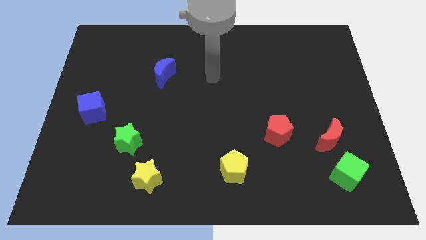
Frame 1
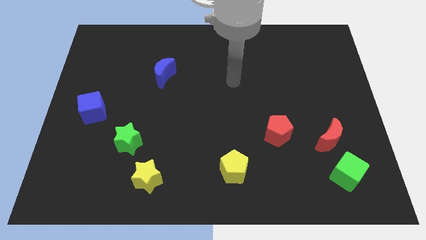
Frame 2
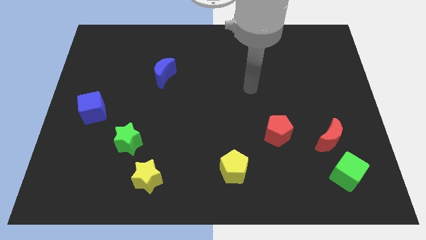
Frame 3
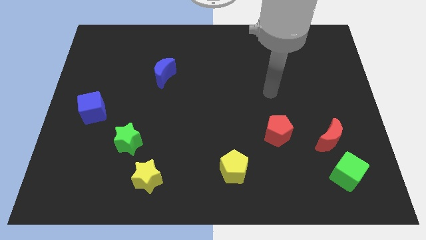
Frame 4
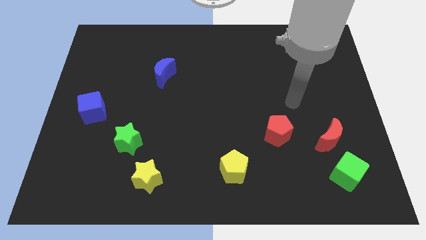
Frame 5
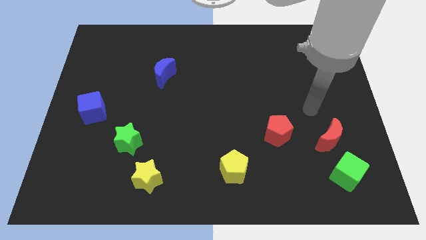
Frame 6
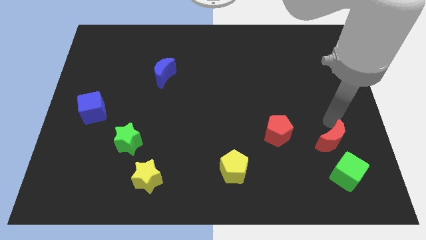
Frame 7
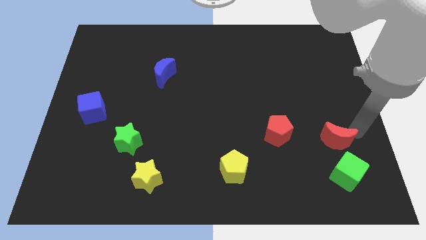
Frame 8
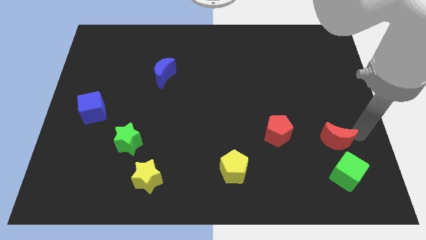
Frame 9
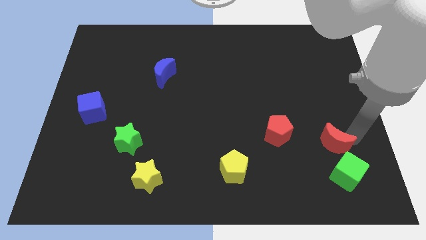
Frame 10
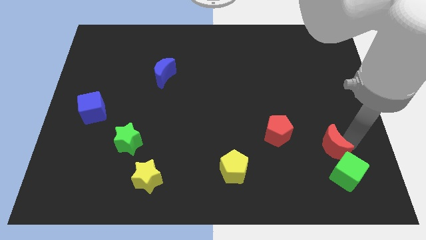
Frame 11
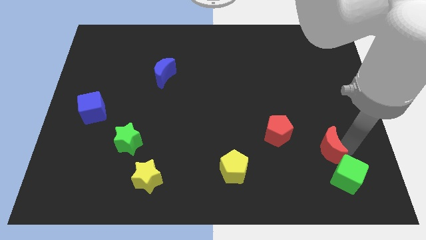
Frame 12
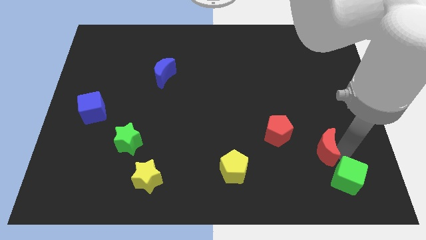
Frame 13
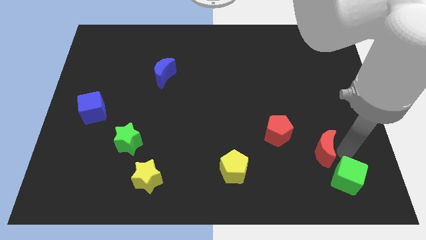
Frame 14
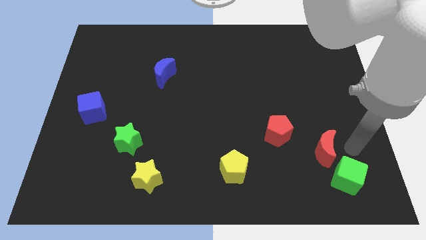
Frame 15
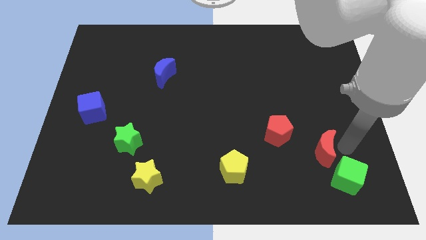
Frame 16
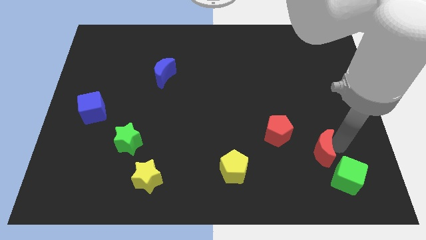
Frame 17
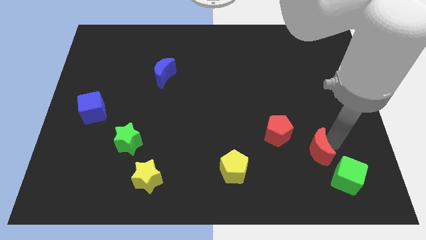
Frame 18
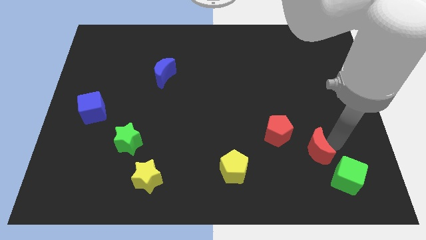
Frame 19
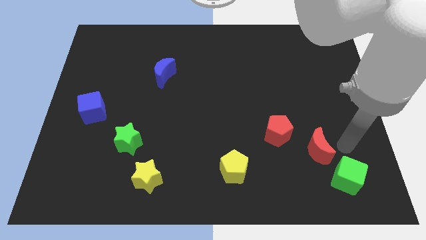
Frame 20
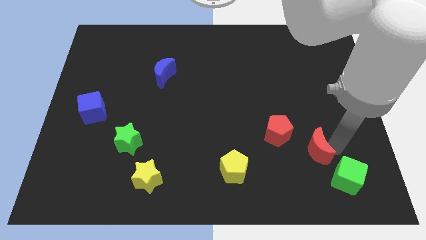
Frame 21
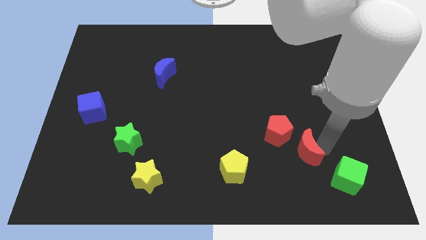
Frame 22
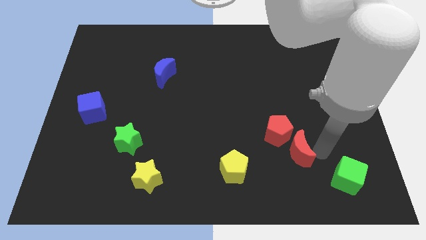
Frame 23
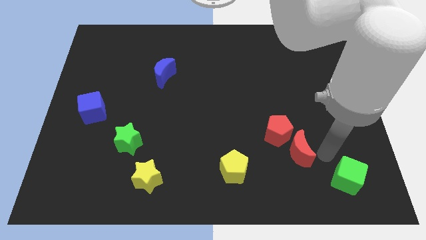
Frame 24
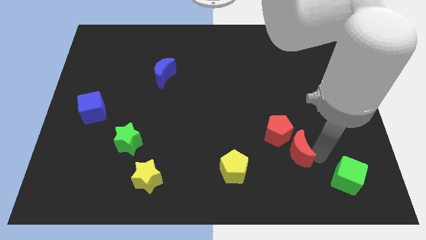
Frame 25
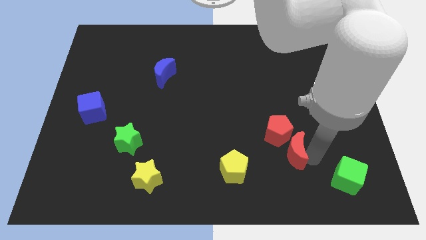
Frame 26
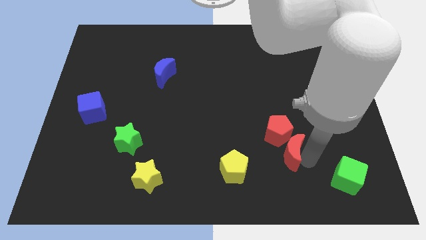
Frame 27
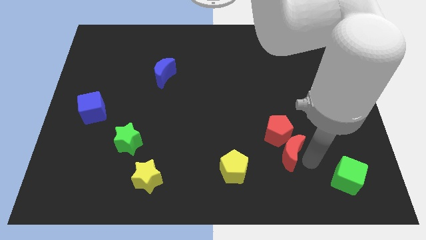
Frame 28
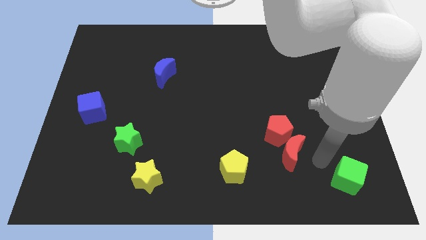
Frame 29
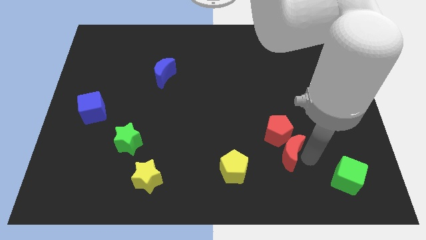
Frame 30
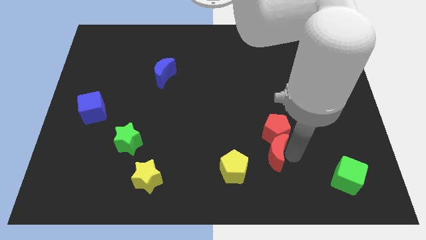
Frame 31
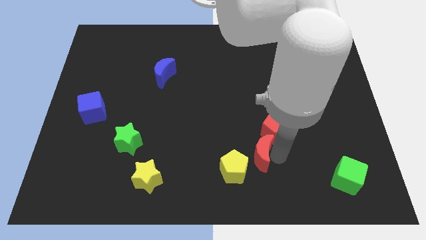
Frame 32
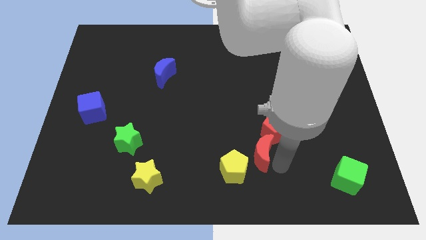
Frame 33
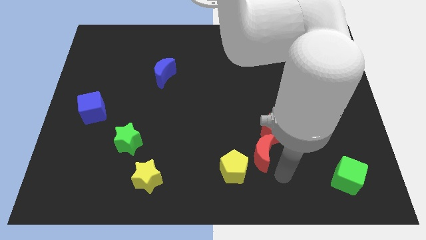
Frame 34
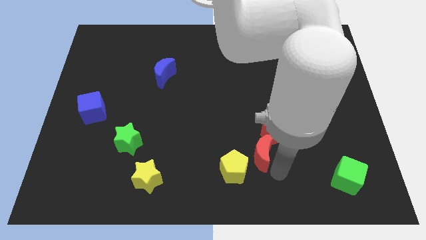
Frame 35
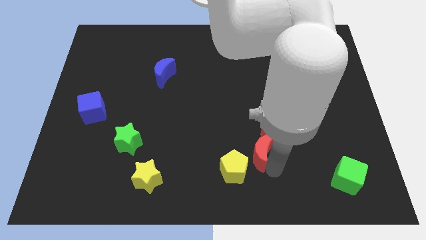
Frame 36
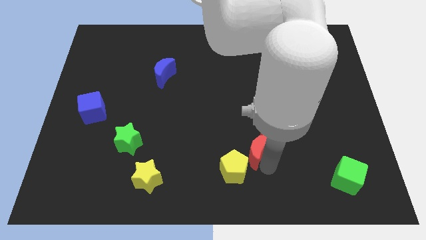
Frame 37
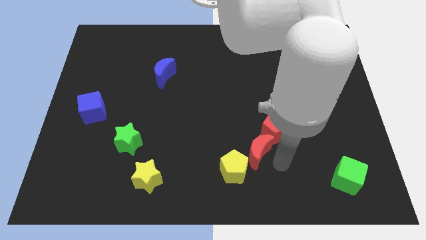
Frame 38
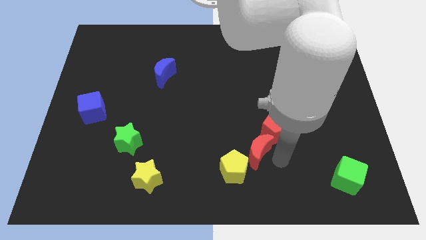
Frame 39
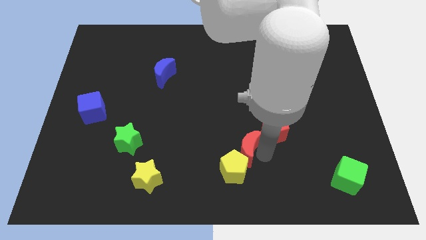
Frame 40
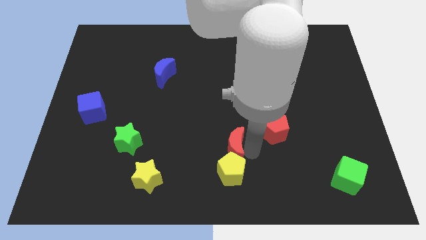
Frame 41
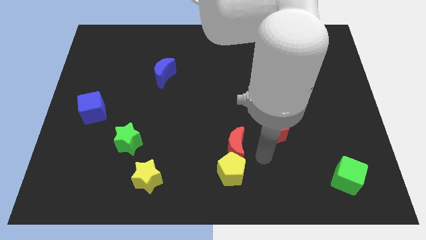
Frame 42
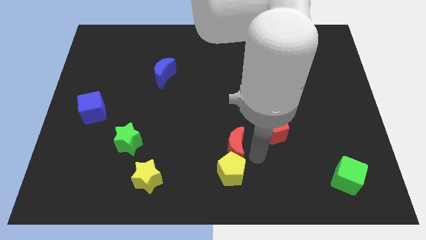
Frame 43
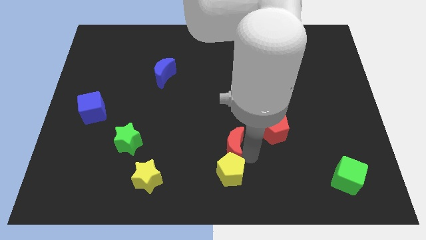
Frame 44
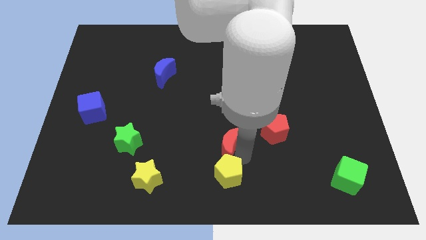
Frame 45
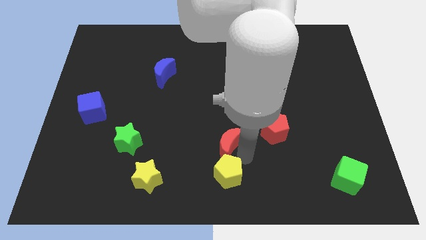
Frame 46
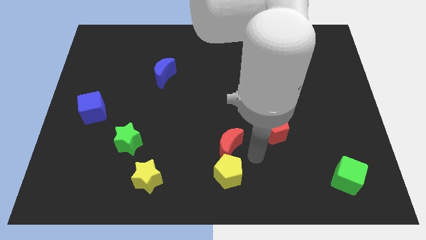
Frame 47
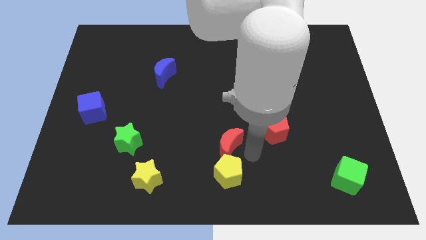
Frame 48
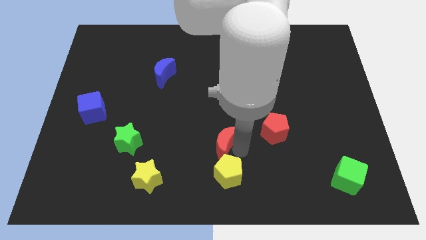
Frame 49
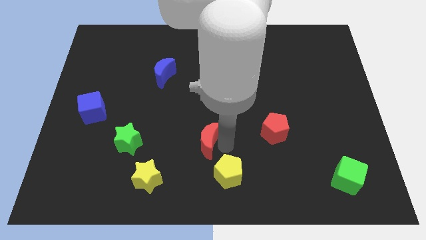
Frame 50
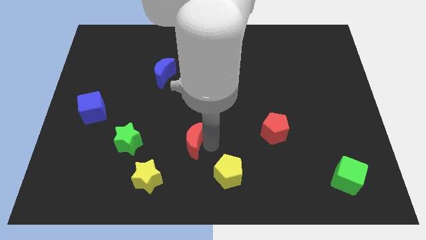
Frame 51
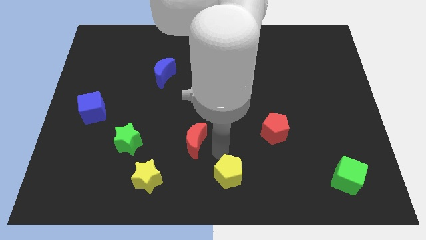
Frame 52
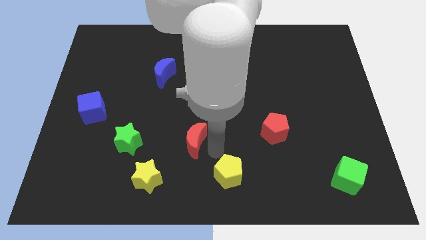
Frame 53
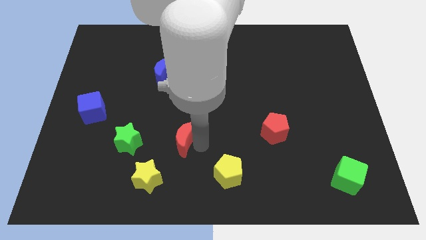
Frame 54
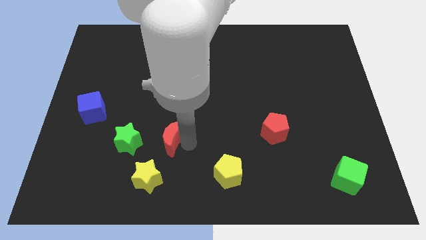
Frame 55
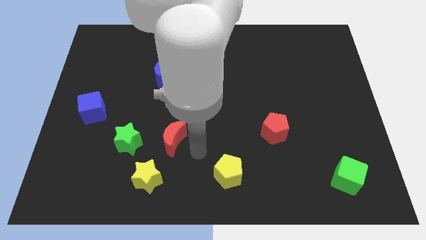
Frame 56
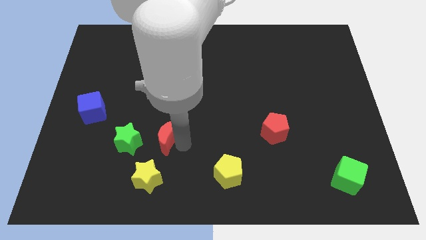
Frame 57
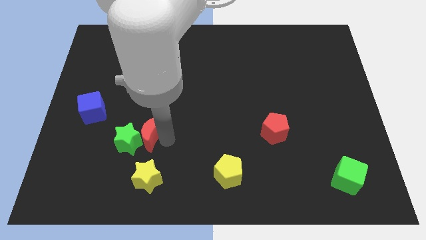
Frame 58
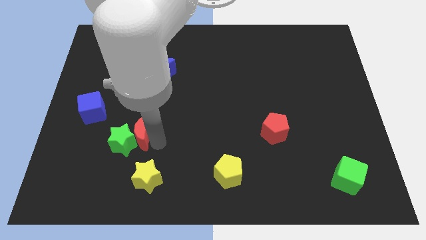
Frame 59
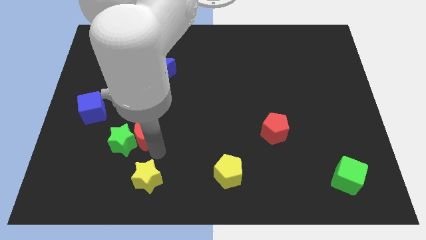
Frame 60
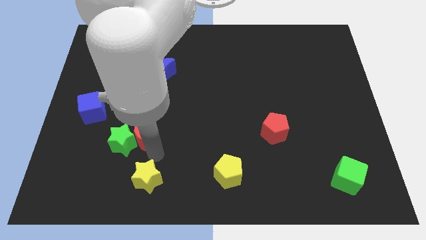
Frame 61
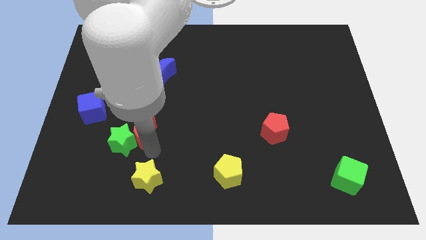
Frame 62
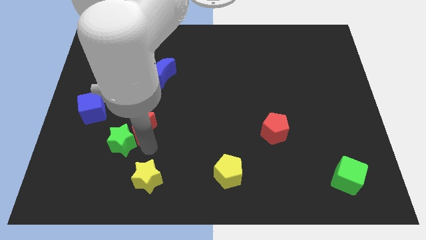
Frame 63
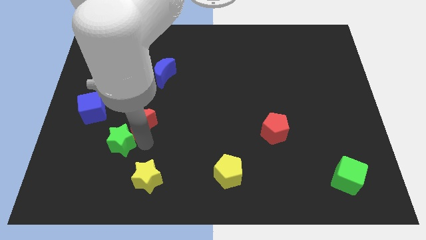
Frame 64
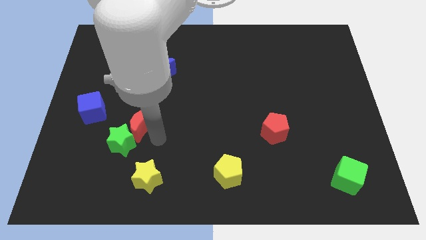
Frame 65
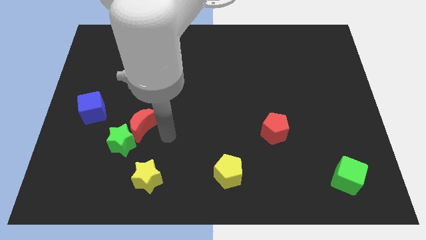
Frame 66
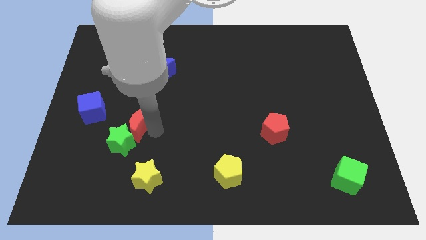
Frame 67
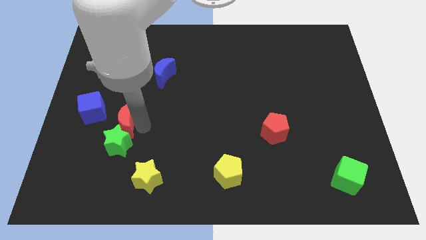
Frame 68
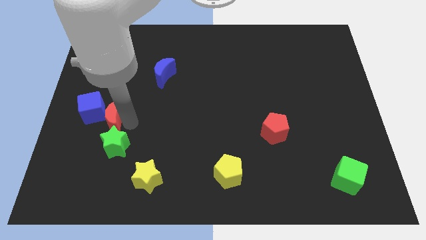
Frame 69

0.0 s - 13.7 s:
push the red moon towards the blue cube

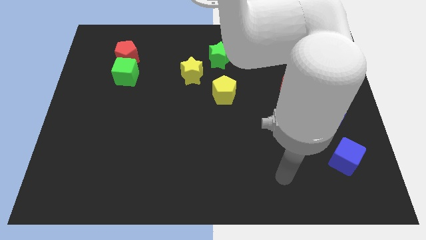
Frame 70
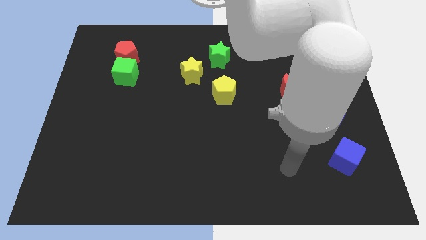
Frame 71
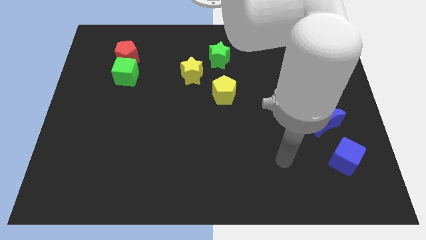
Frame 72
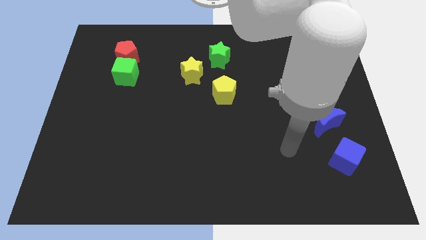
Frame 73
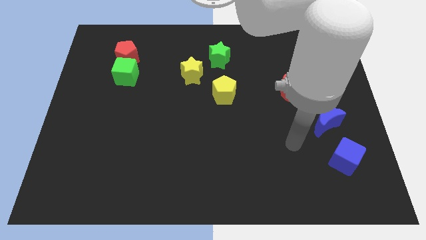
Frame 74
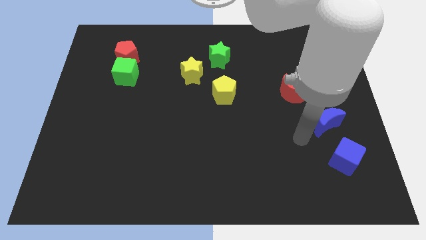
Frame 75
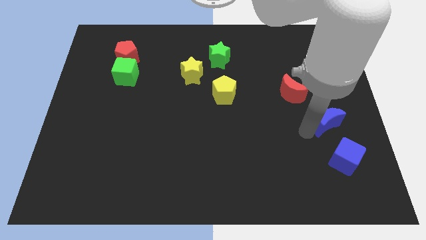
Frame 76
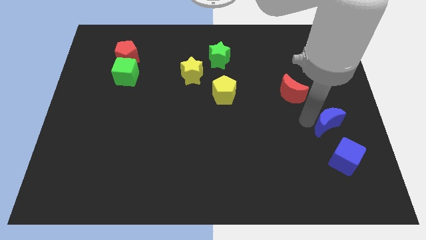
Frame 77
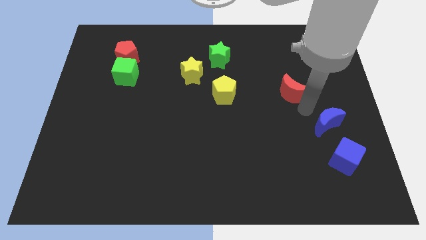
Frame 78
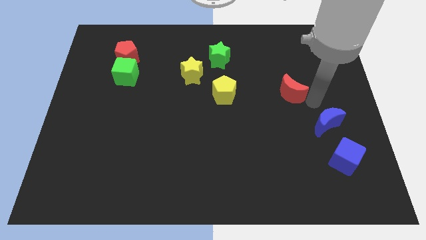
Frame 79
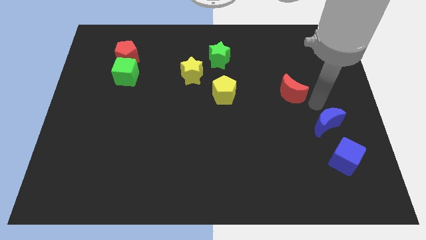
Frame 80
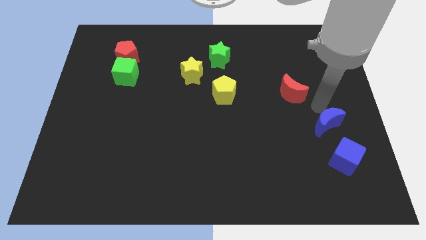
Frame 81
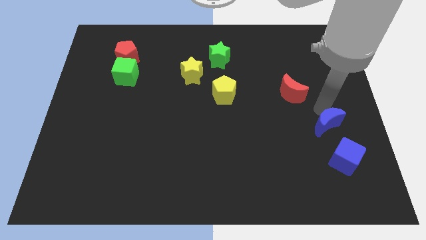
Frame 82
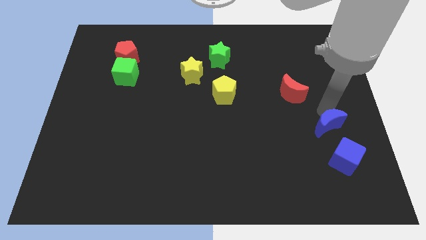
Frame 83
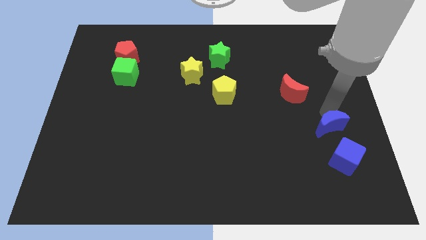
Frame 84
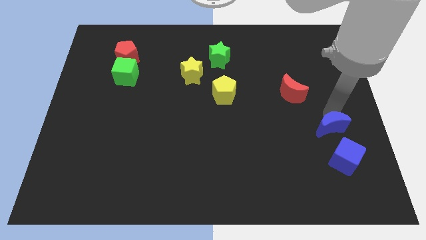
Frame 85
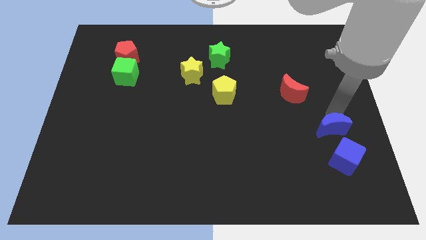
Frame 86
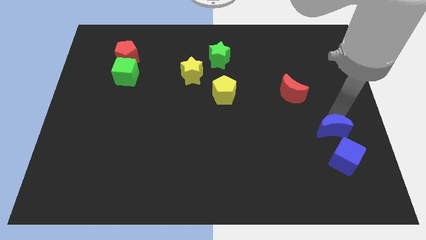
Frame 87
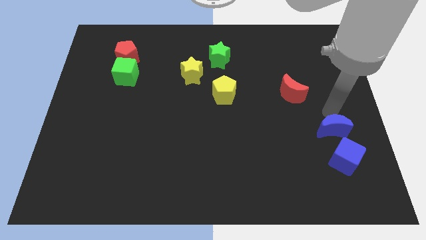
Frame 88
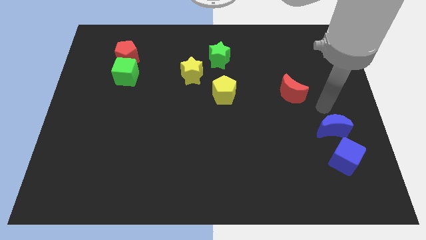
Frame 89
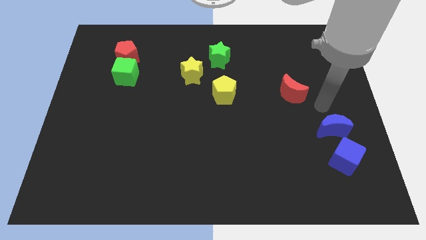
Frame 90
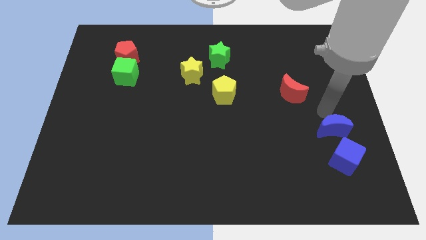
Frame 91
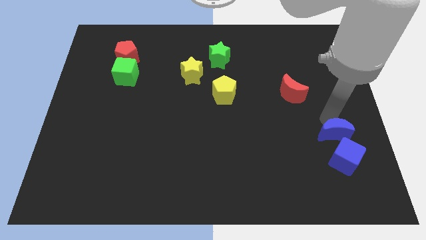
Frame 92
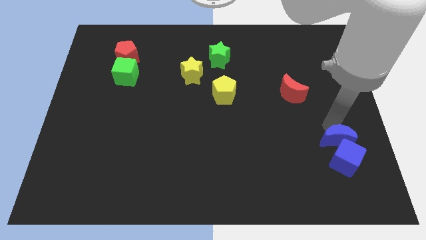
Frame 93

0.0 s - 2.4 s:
slide the blue moon towards the blue cube
